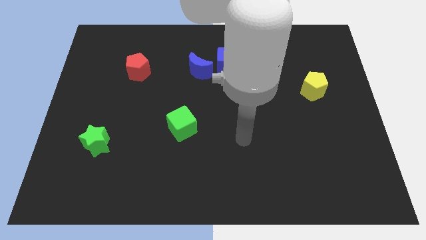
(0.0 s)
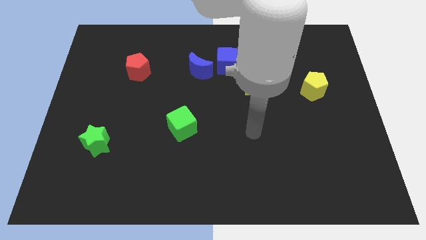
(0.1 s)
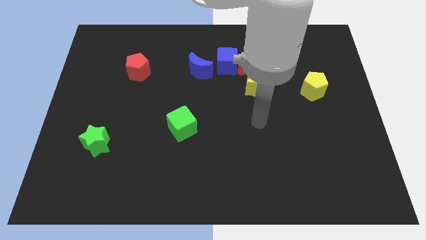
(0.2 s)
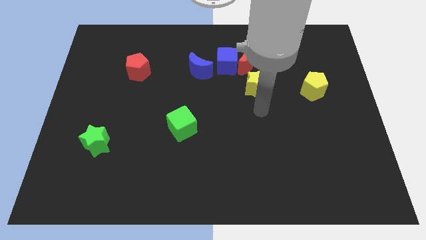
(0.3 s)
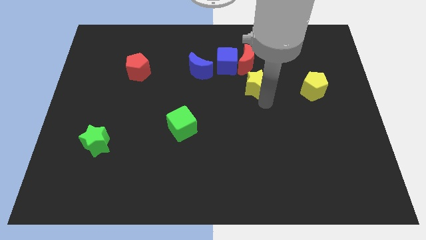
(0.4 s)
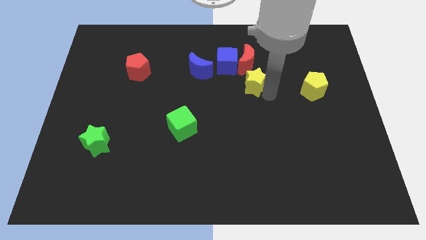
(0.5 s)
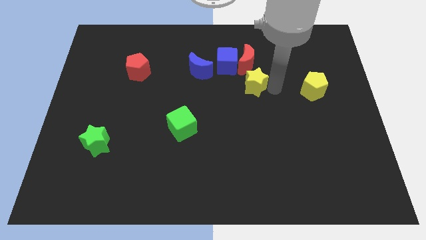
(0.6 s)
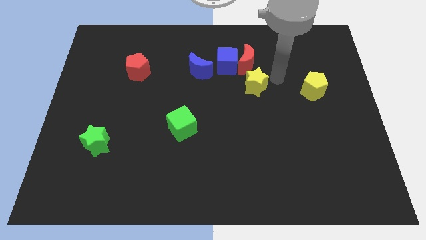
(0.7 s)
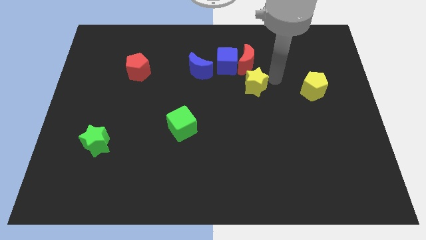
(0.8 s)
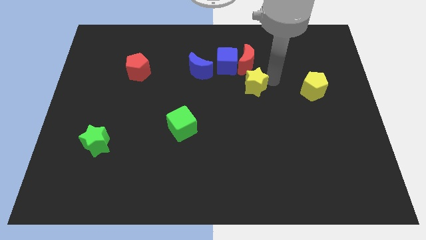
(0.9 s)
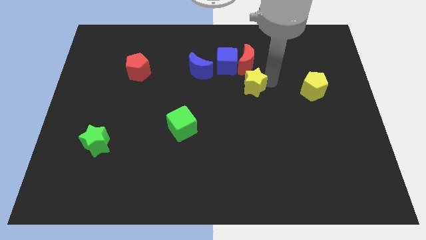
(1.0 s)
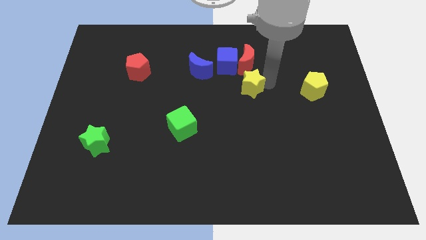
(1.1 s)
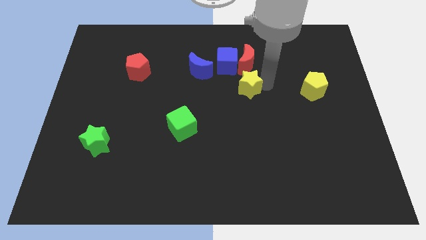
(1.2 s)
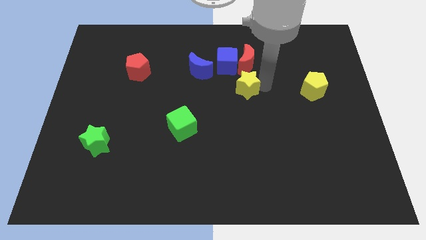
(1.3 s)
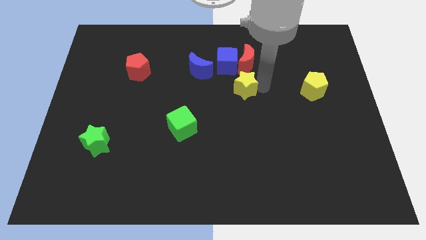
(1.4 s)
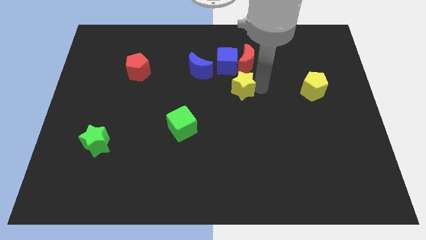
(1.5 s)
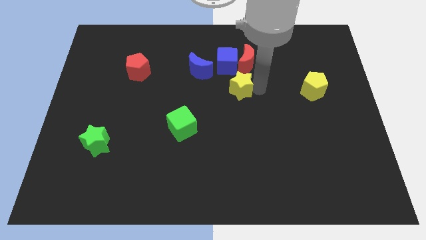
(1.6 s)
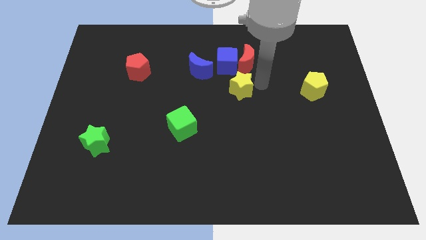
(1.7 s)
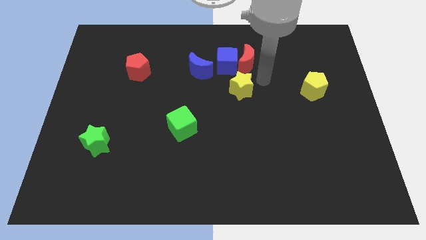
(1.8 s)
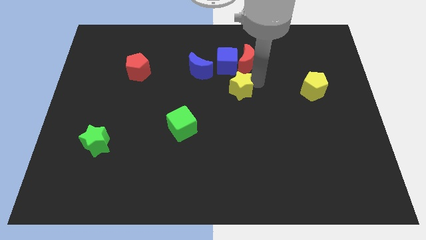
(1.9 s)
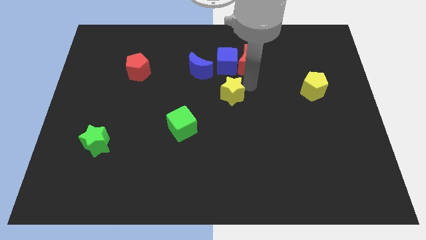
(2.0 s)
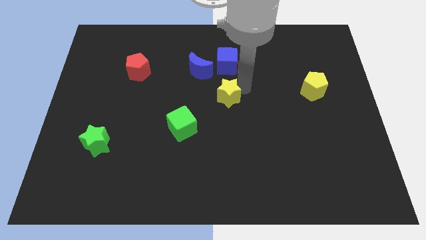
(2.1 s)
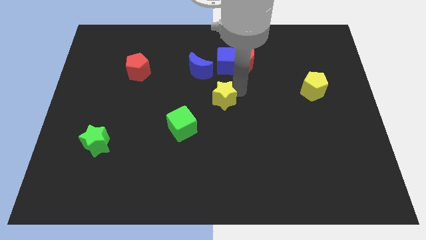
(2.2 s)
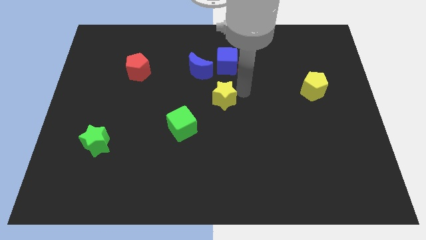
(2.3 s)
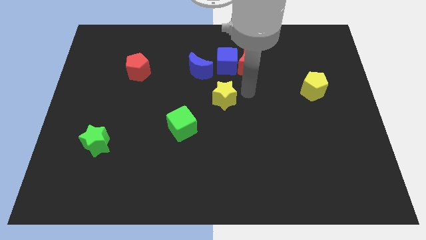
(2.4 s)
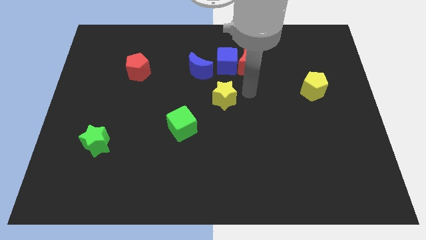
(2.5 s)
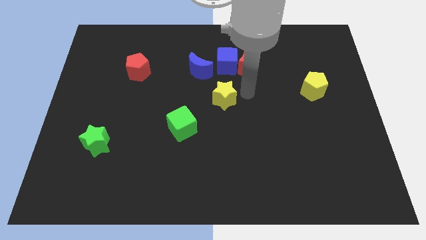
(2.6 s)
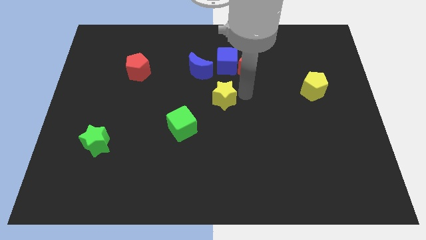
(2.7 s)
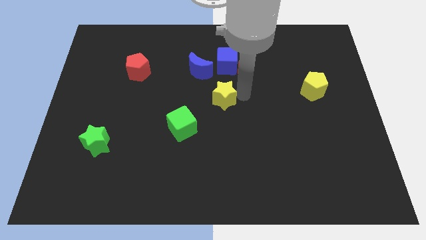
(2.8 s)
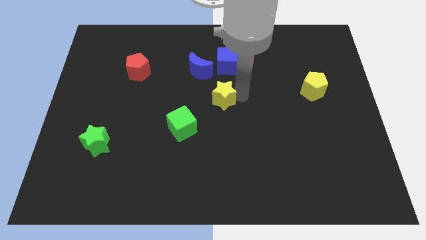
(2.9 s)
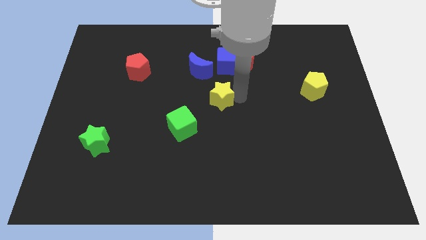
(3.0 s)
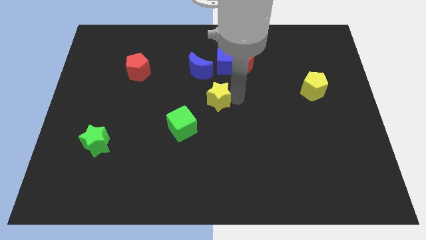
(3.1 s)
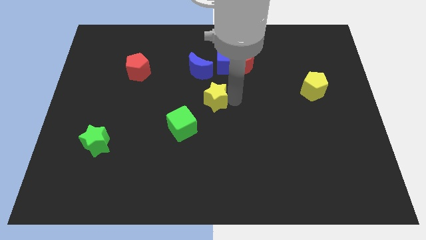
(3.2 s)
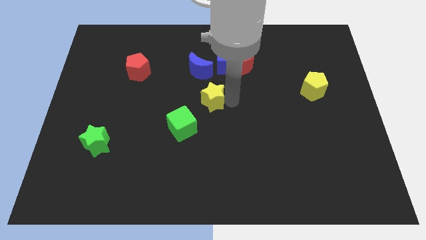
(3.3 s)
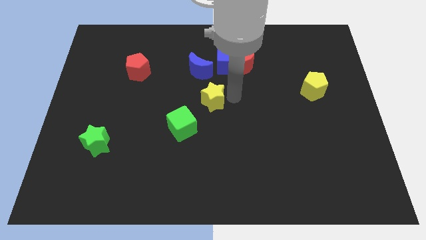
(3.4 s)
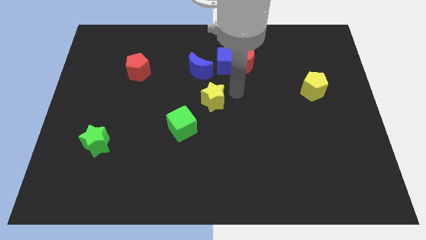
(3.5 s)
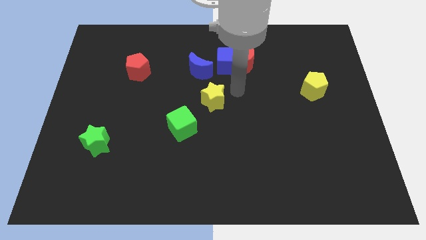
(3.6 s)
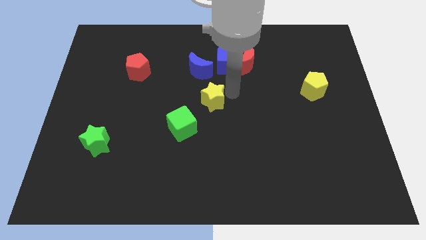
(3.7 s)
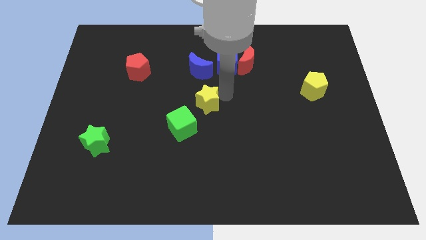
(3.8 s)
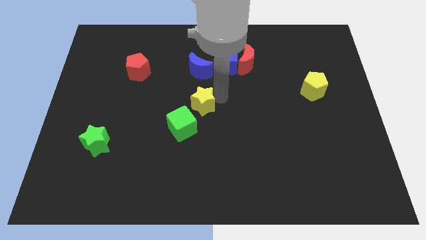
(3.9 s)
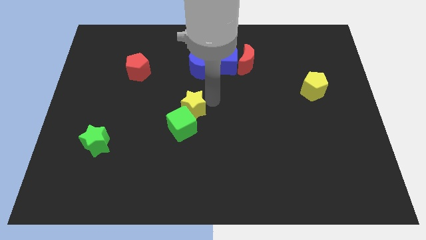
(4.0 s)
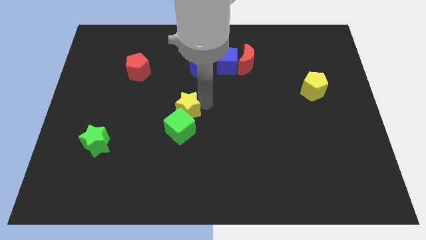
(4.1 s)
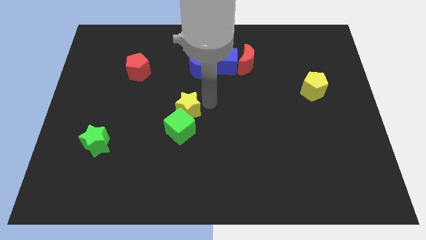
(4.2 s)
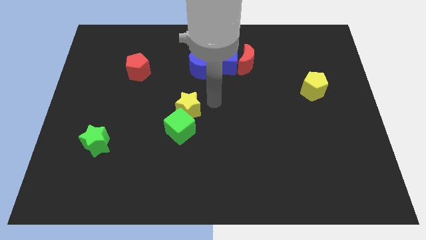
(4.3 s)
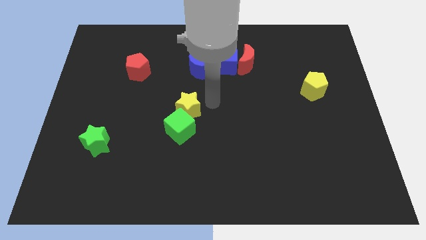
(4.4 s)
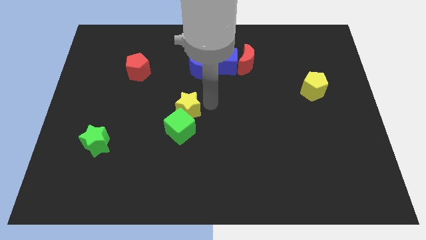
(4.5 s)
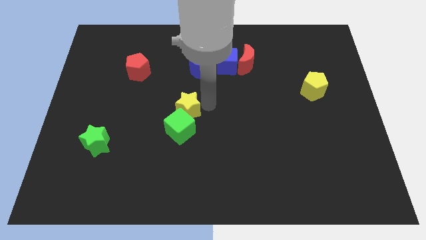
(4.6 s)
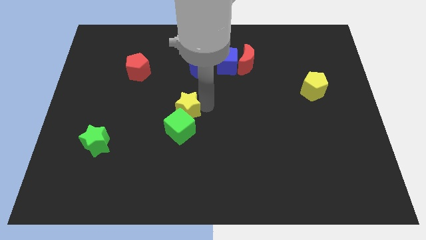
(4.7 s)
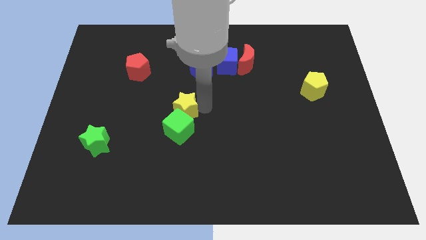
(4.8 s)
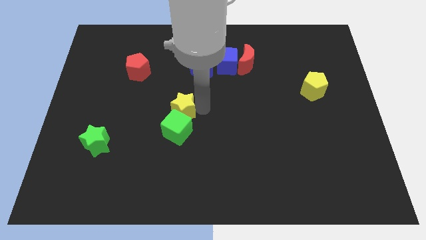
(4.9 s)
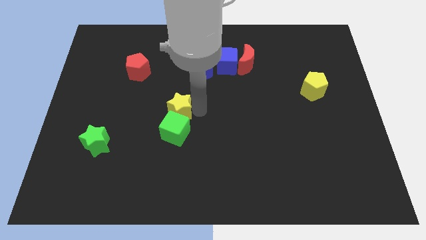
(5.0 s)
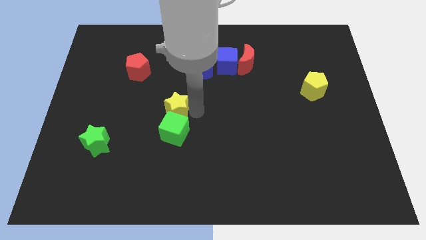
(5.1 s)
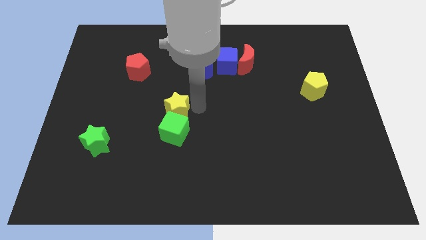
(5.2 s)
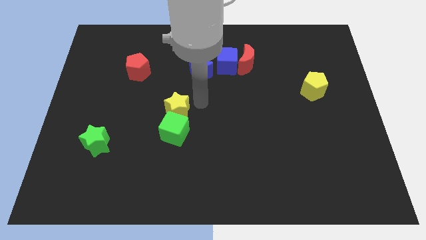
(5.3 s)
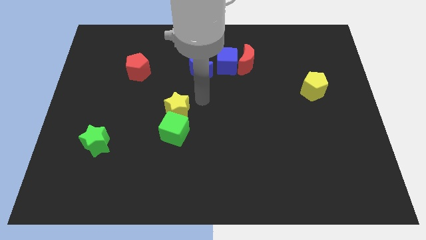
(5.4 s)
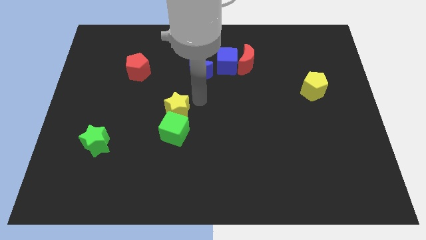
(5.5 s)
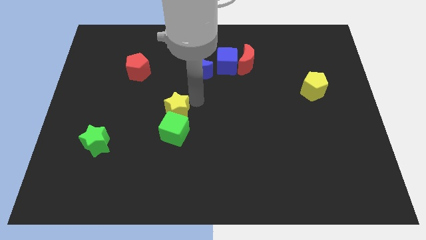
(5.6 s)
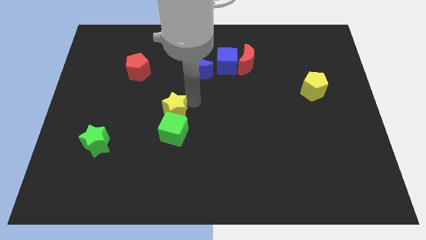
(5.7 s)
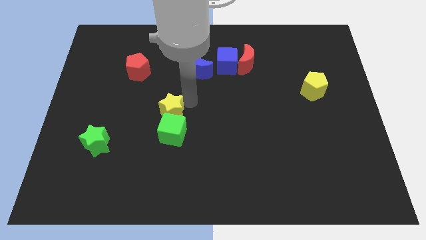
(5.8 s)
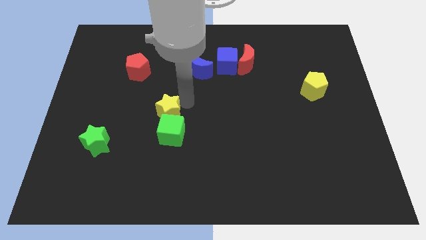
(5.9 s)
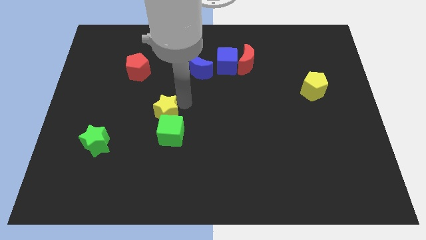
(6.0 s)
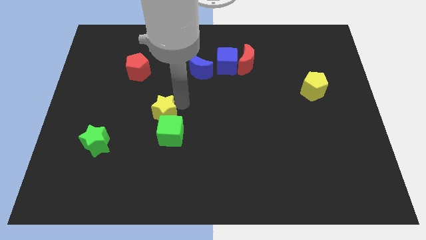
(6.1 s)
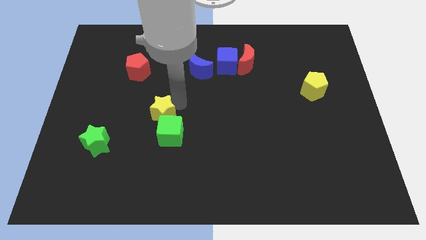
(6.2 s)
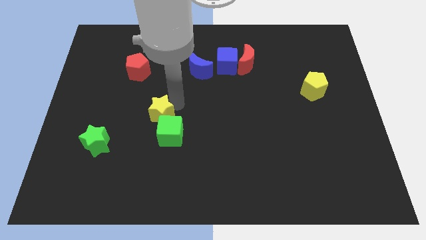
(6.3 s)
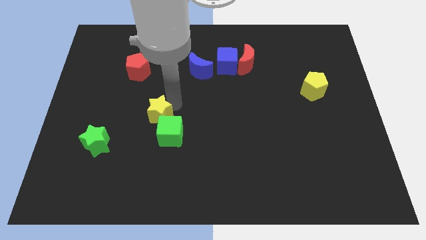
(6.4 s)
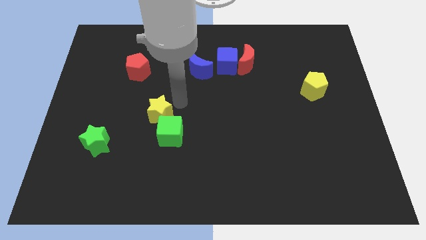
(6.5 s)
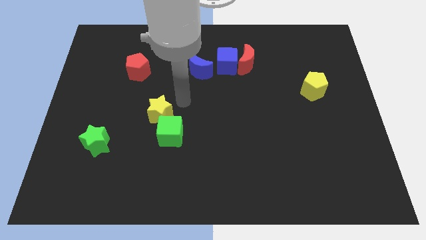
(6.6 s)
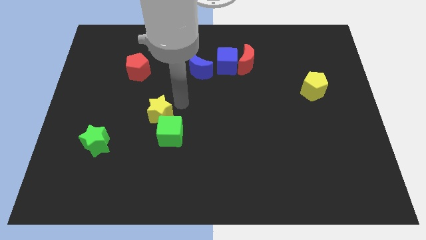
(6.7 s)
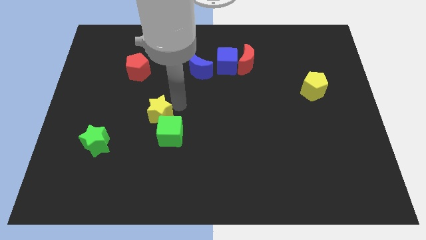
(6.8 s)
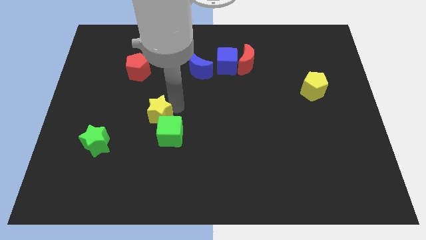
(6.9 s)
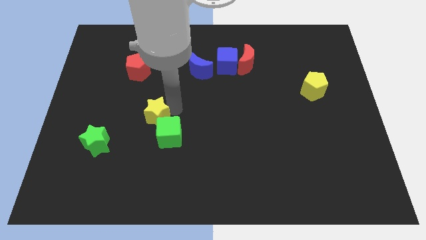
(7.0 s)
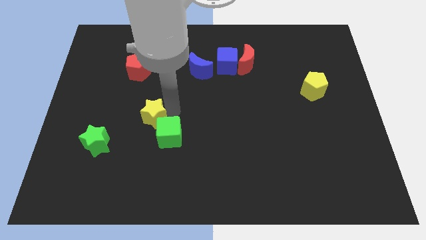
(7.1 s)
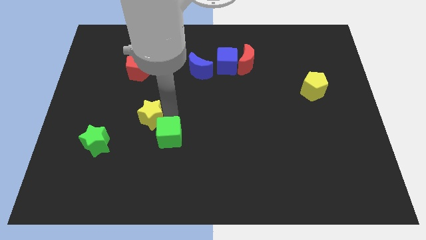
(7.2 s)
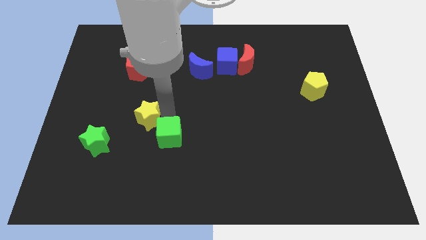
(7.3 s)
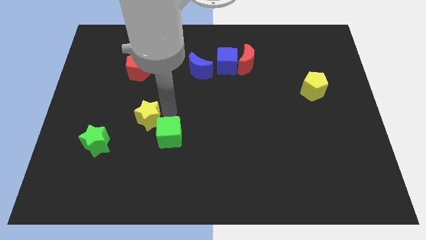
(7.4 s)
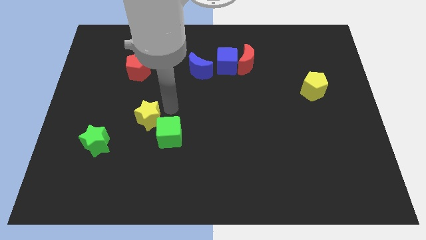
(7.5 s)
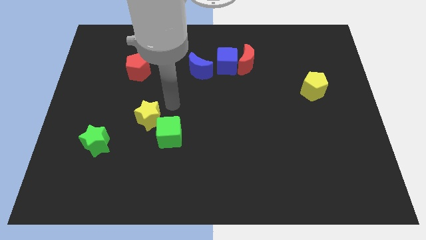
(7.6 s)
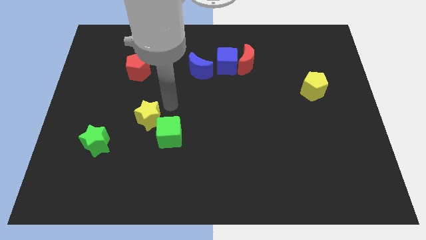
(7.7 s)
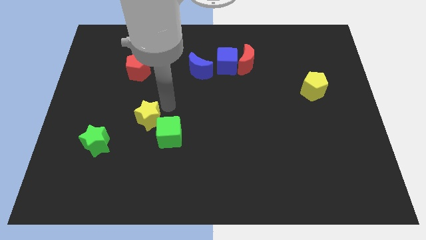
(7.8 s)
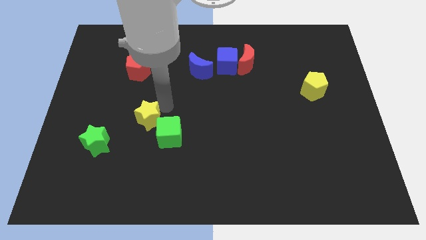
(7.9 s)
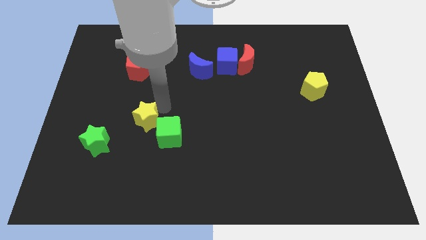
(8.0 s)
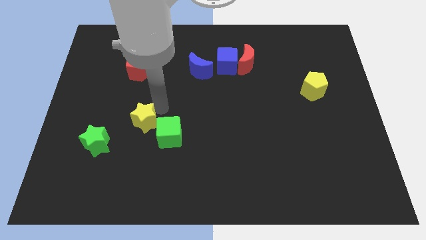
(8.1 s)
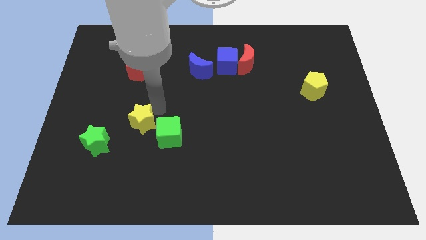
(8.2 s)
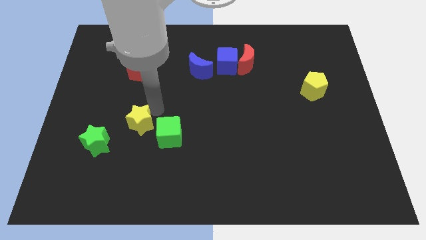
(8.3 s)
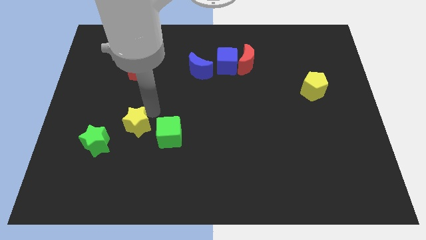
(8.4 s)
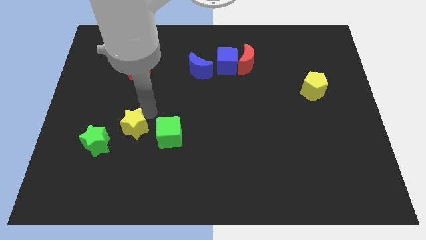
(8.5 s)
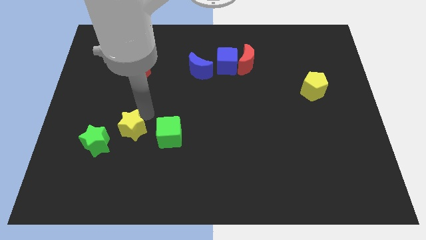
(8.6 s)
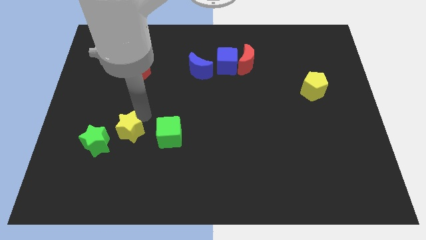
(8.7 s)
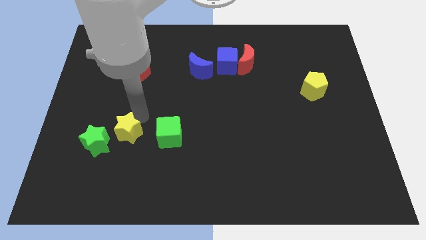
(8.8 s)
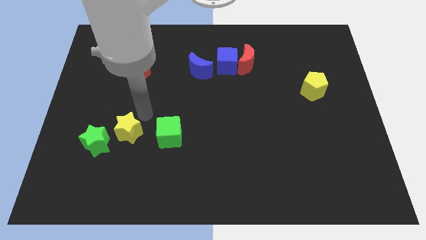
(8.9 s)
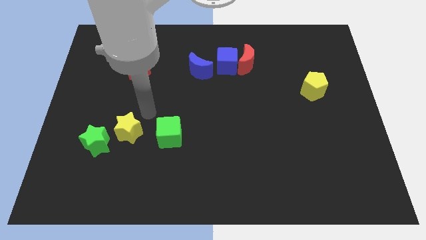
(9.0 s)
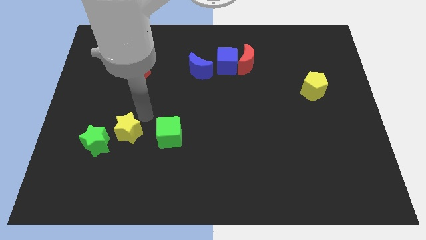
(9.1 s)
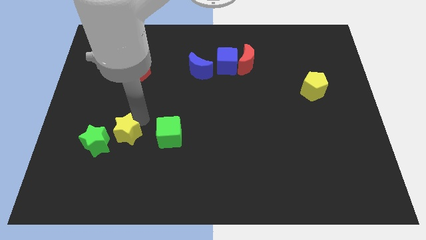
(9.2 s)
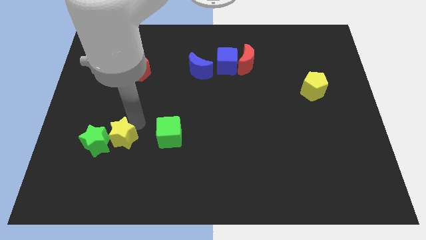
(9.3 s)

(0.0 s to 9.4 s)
push the yellow star to the green star
